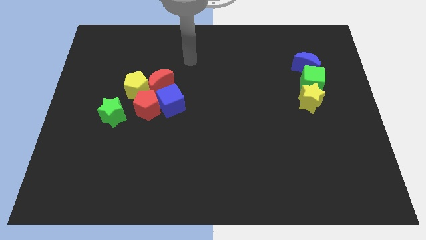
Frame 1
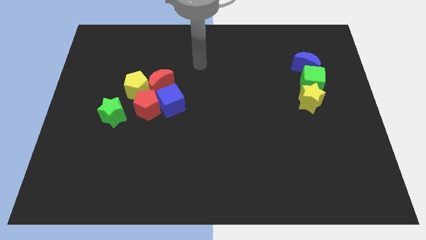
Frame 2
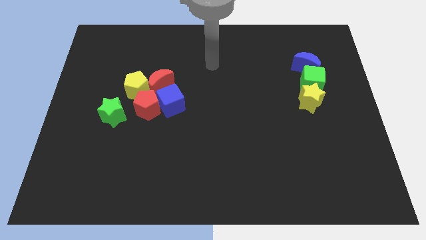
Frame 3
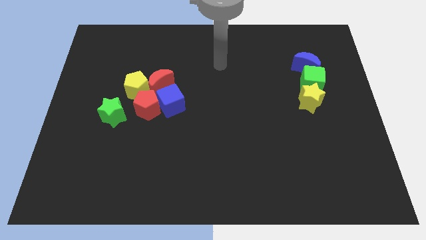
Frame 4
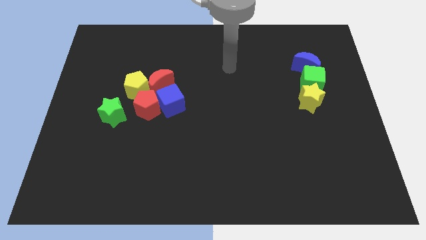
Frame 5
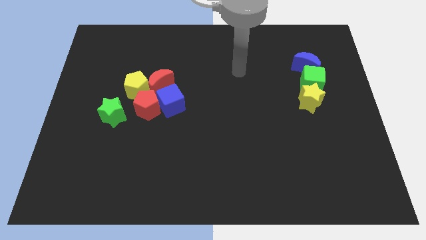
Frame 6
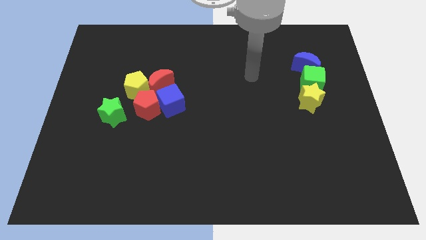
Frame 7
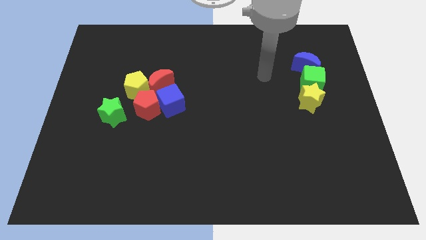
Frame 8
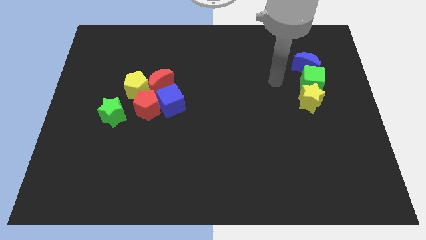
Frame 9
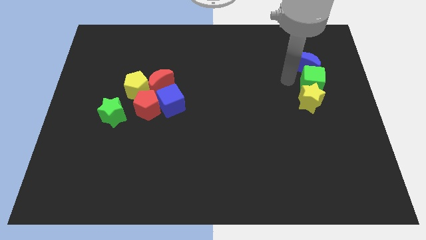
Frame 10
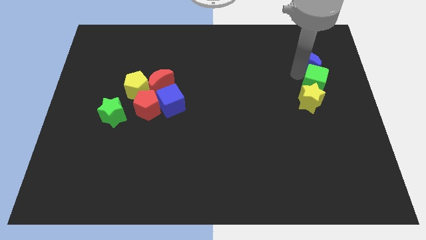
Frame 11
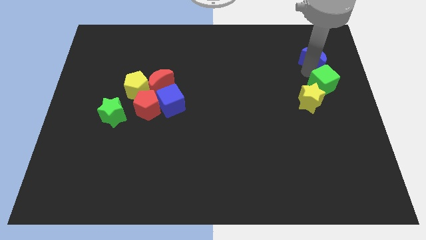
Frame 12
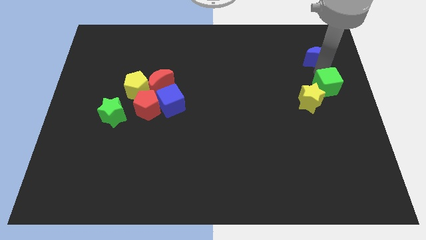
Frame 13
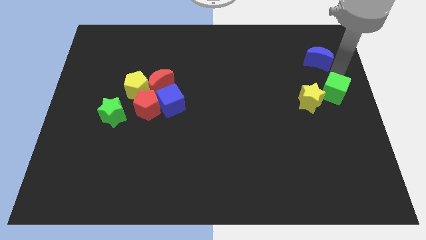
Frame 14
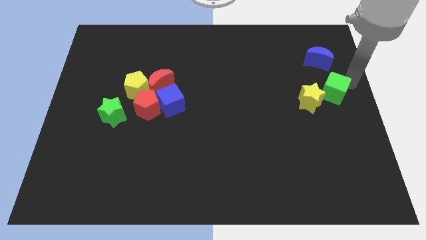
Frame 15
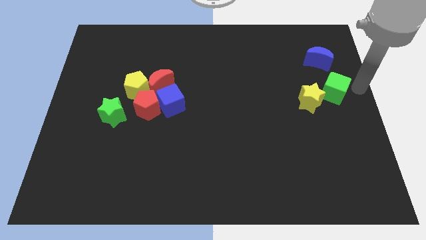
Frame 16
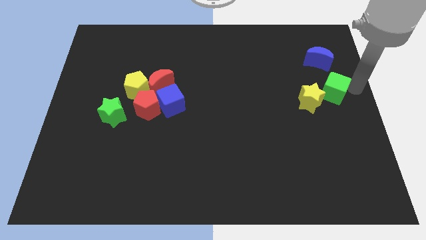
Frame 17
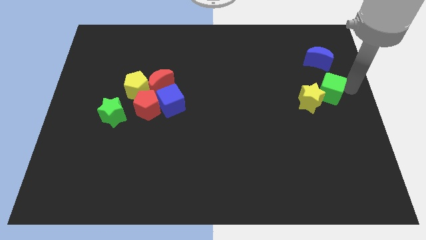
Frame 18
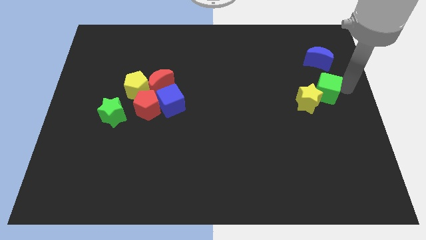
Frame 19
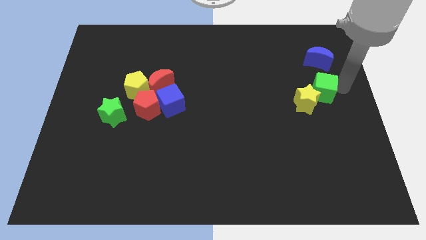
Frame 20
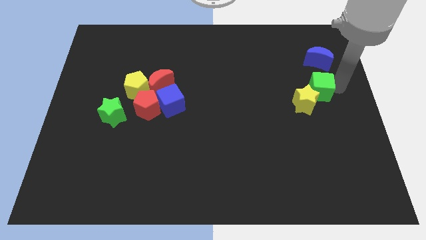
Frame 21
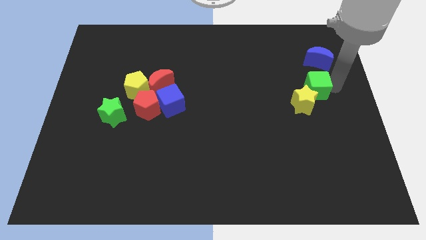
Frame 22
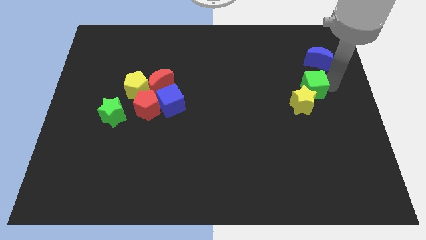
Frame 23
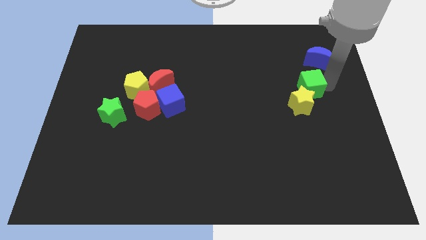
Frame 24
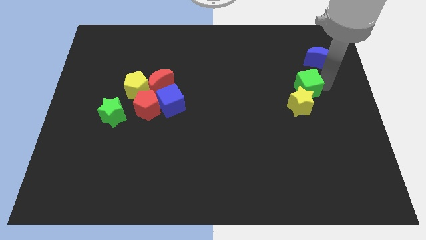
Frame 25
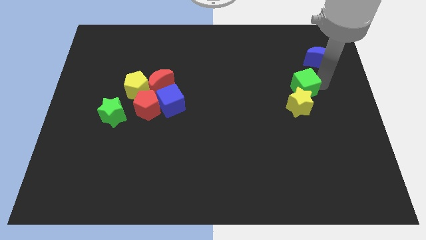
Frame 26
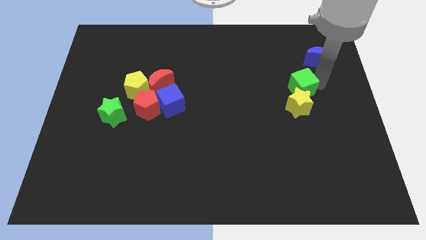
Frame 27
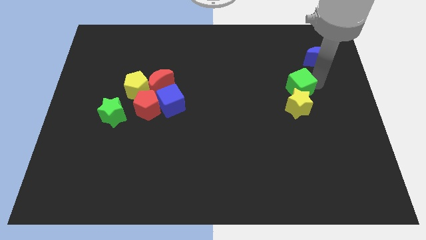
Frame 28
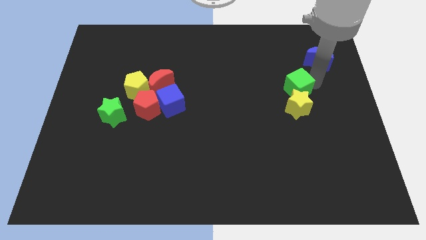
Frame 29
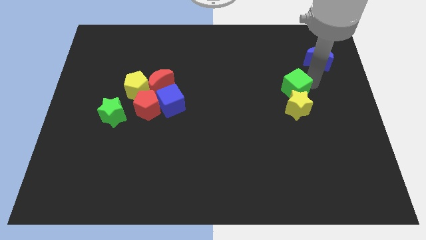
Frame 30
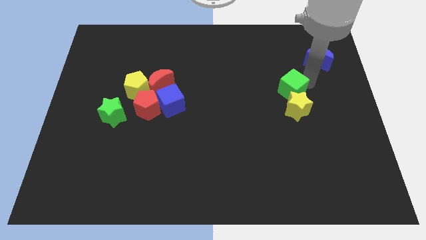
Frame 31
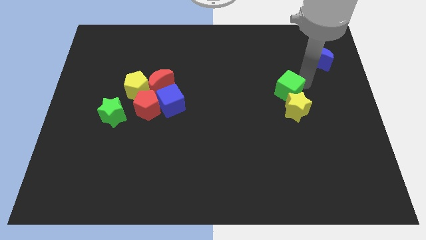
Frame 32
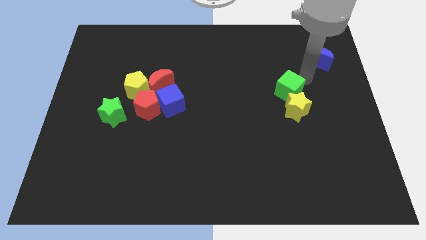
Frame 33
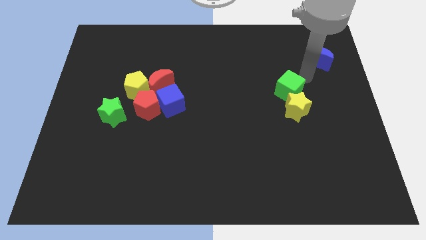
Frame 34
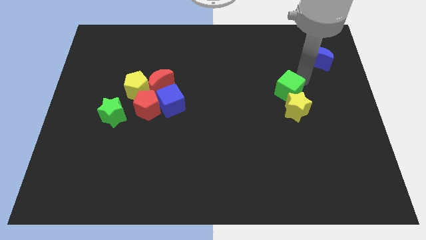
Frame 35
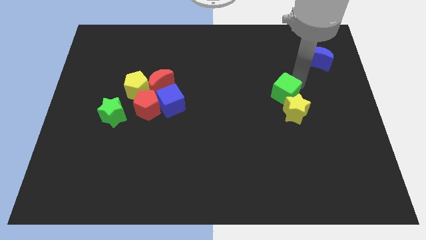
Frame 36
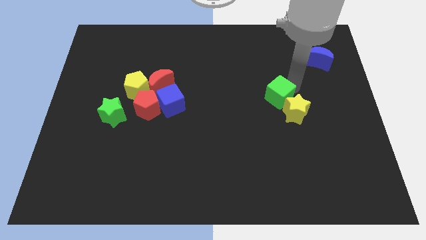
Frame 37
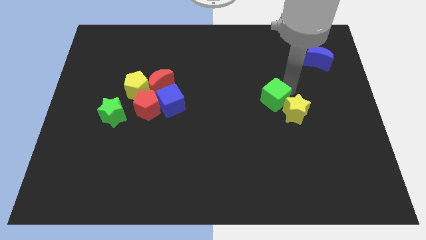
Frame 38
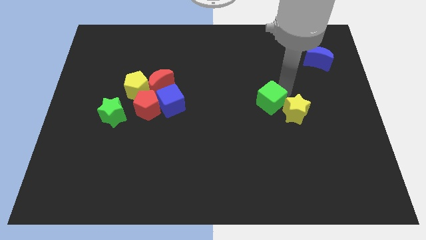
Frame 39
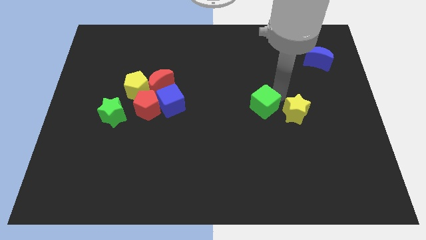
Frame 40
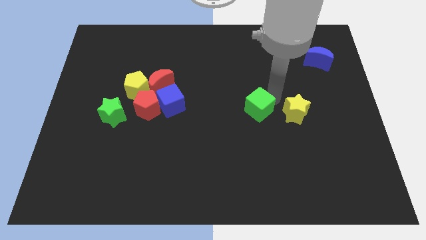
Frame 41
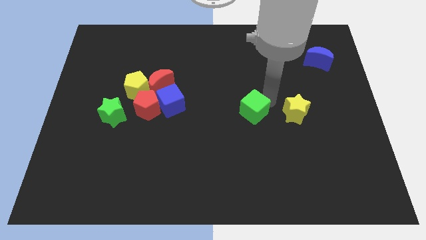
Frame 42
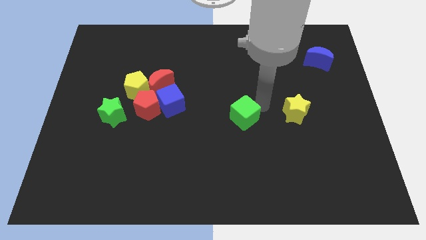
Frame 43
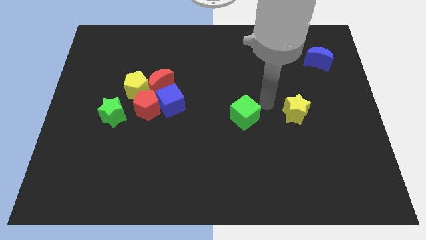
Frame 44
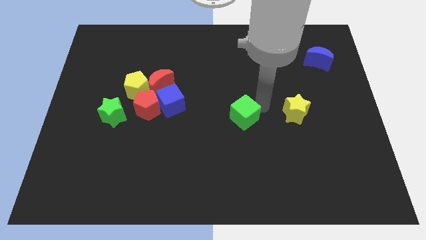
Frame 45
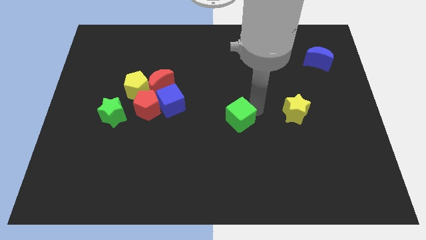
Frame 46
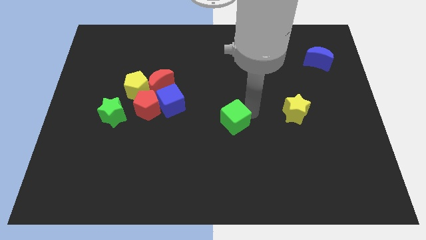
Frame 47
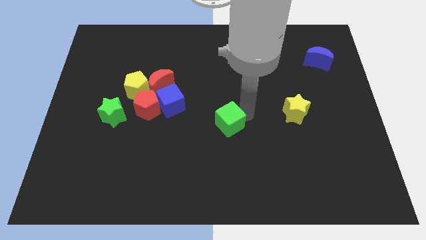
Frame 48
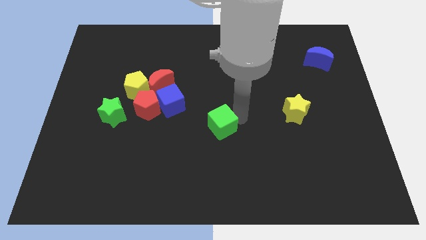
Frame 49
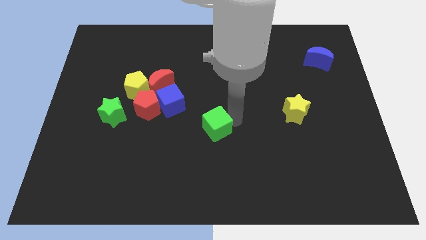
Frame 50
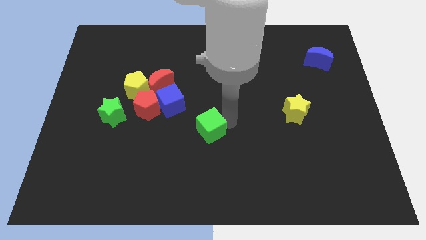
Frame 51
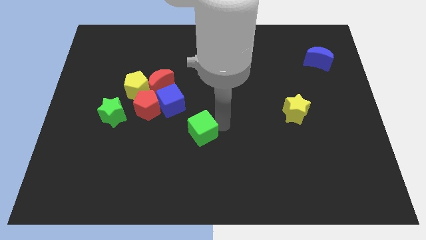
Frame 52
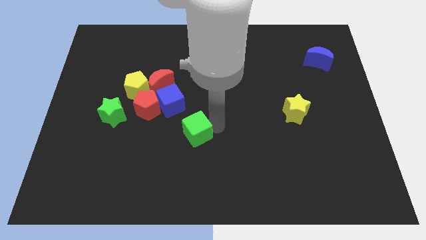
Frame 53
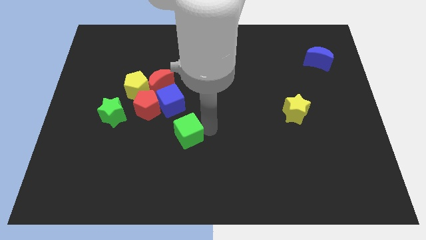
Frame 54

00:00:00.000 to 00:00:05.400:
put the green cube to the bottom of the blue cube

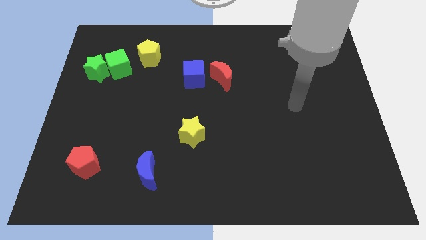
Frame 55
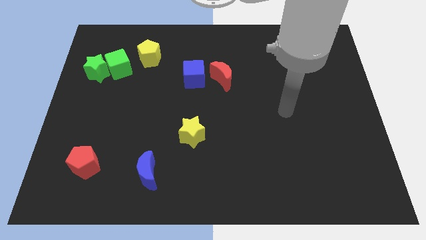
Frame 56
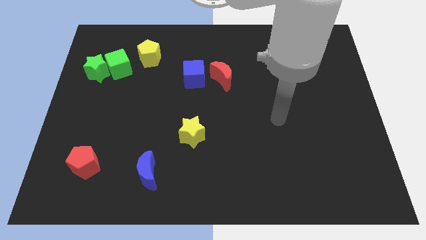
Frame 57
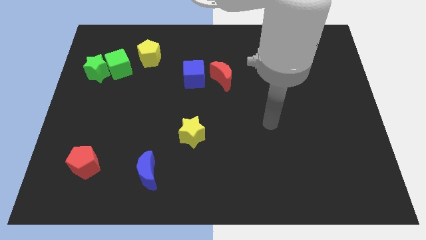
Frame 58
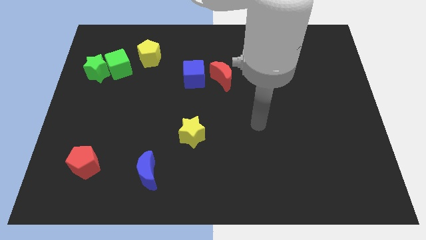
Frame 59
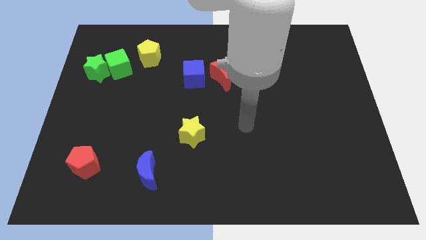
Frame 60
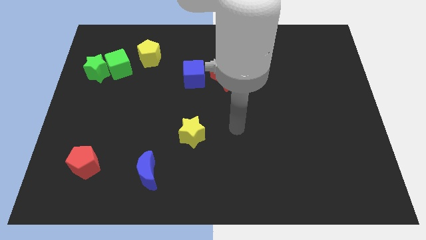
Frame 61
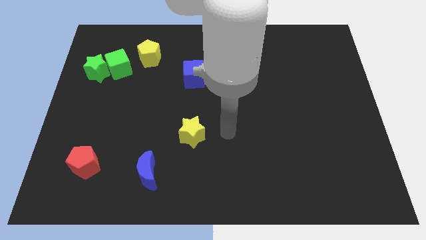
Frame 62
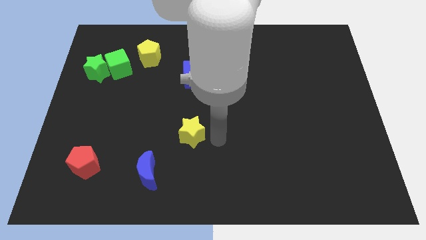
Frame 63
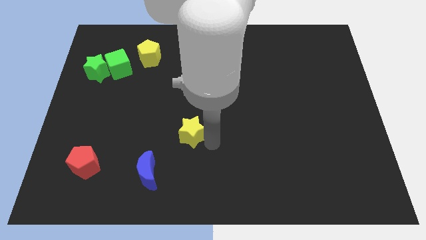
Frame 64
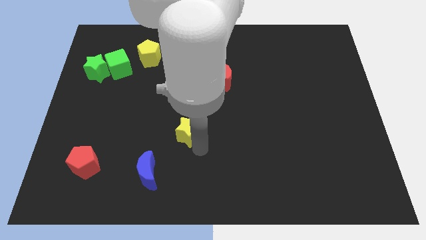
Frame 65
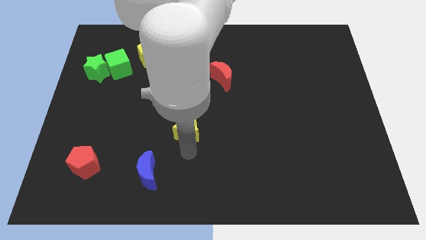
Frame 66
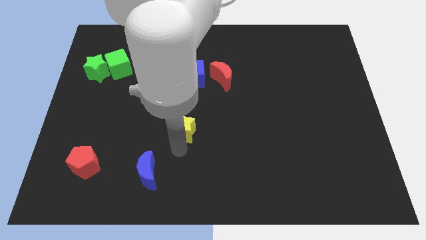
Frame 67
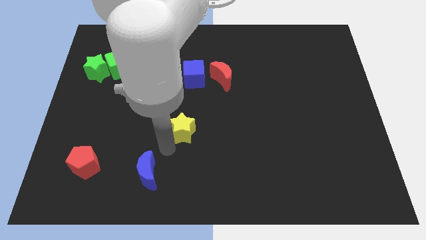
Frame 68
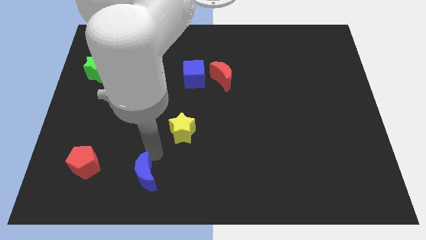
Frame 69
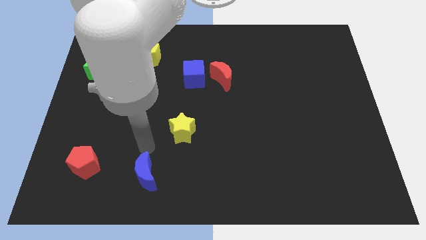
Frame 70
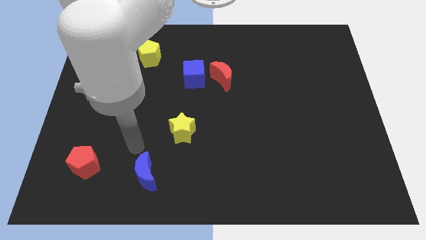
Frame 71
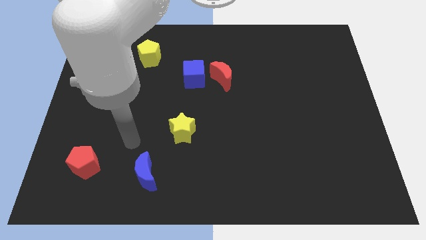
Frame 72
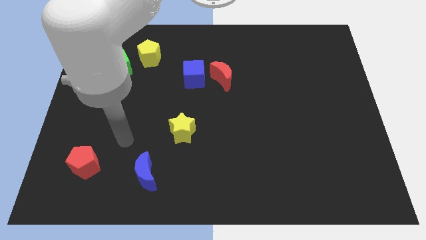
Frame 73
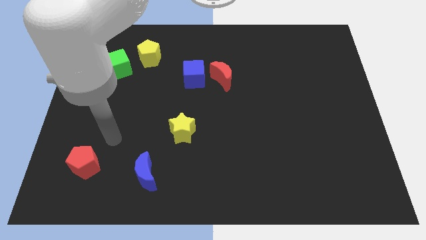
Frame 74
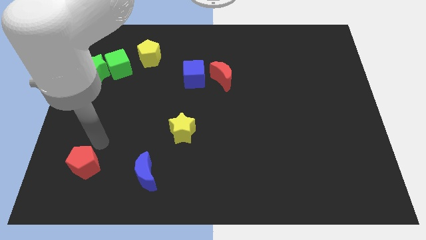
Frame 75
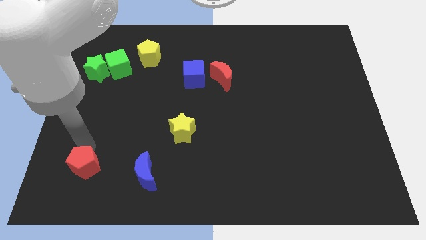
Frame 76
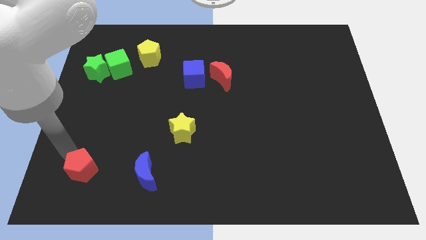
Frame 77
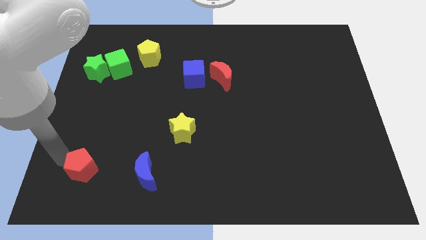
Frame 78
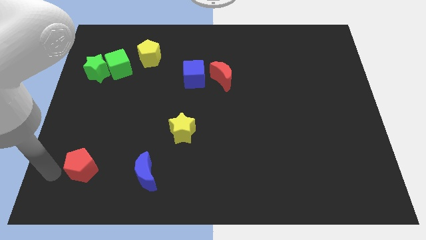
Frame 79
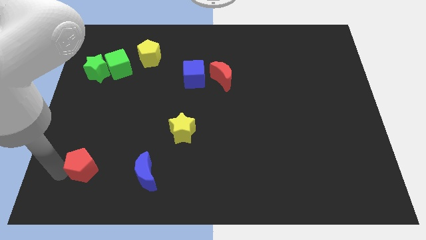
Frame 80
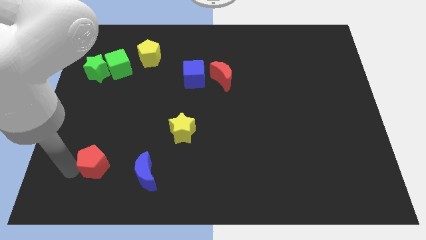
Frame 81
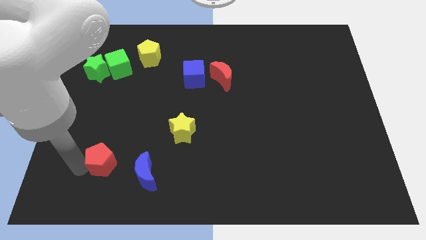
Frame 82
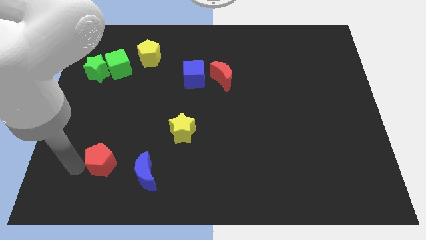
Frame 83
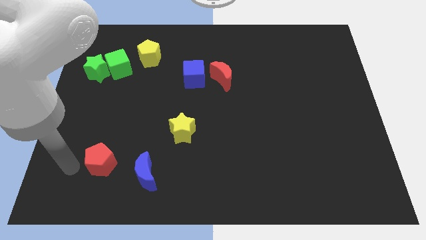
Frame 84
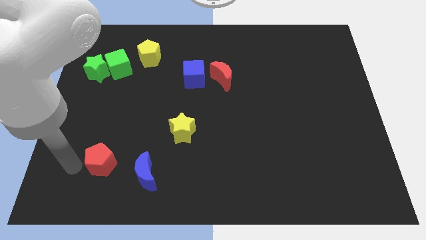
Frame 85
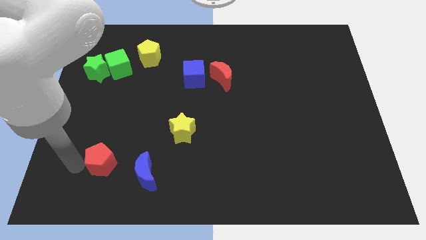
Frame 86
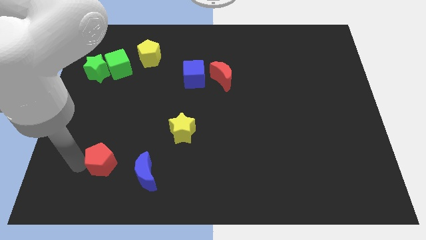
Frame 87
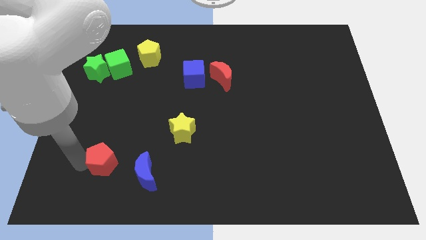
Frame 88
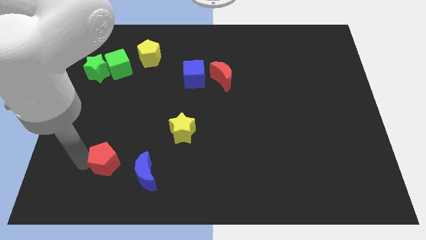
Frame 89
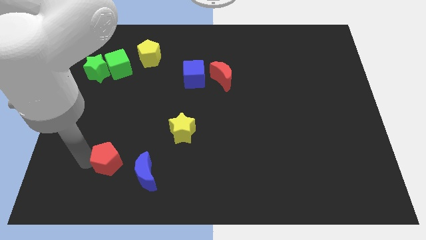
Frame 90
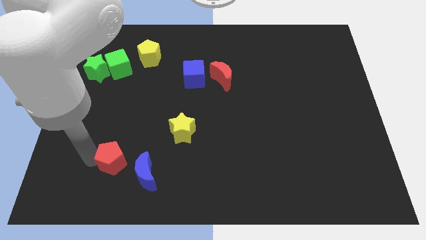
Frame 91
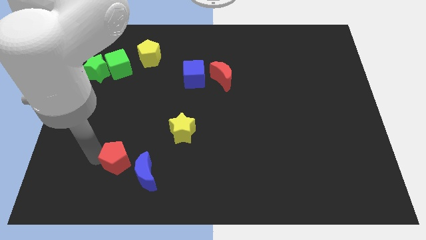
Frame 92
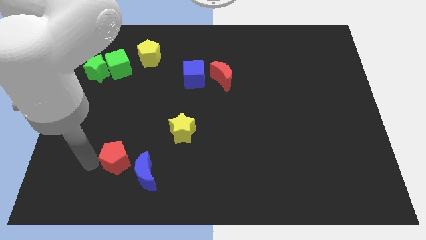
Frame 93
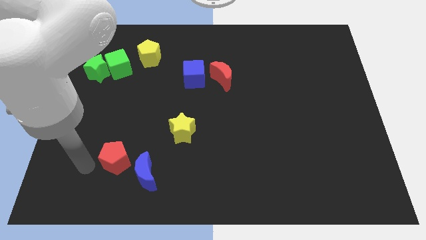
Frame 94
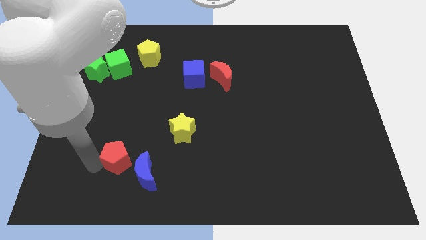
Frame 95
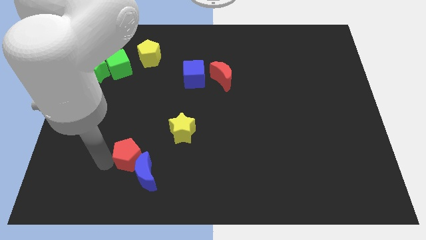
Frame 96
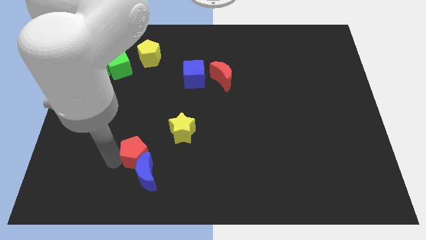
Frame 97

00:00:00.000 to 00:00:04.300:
put the red pentagon to the bottom left of the yellow star
